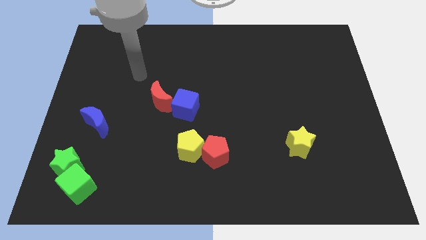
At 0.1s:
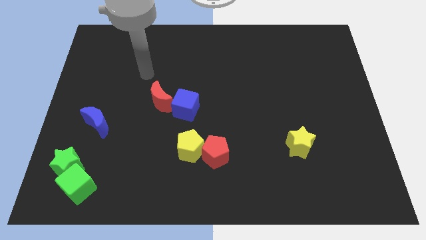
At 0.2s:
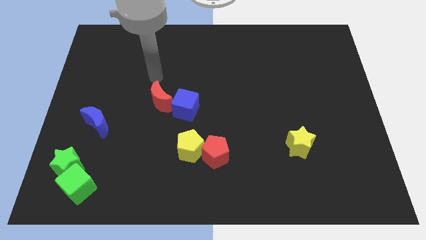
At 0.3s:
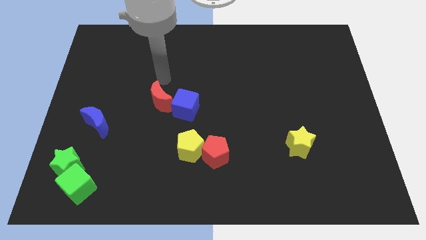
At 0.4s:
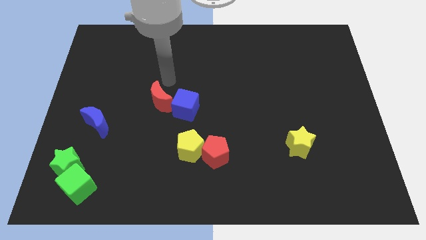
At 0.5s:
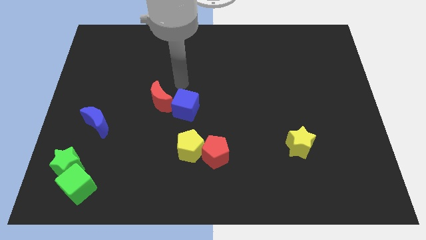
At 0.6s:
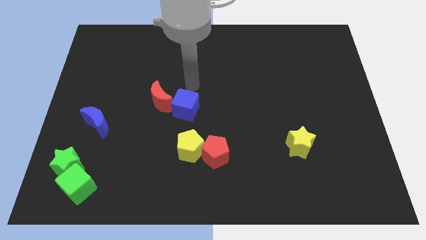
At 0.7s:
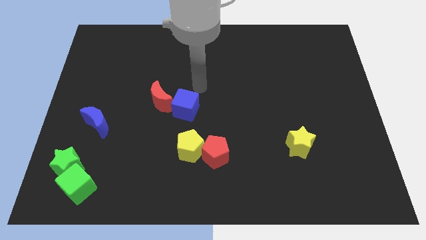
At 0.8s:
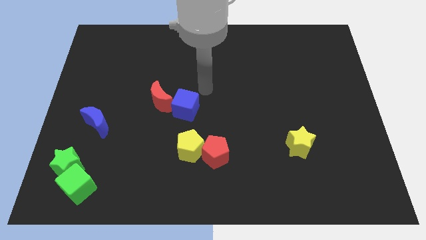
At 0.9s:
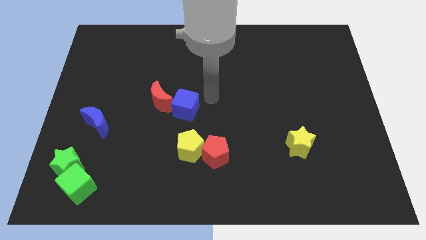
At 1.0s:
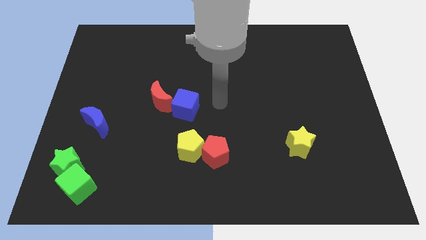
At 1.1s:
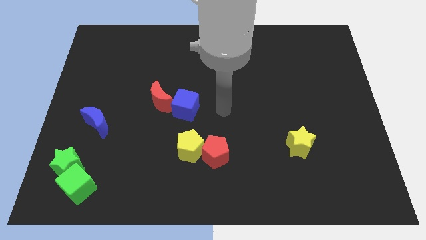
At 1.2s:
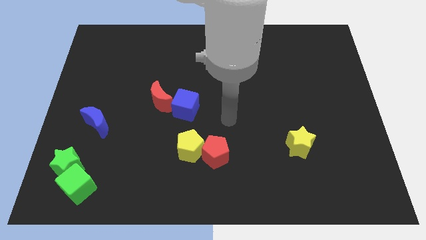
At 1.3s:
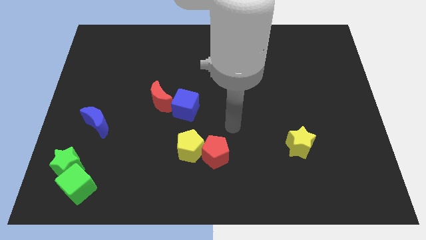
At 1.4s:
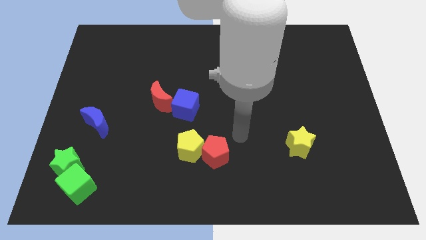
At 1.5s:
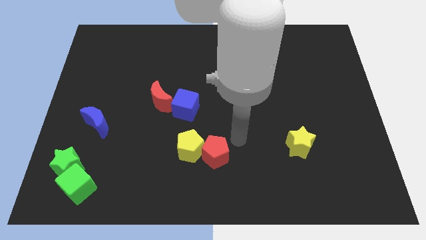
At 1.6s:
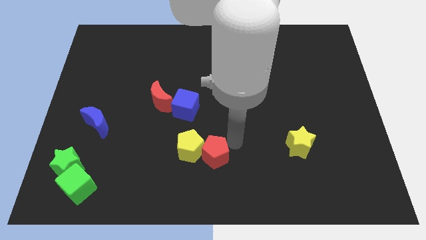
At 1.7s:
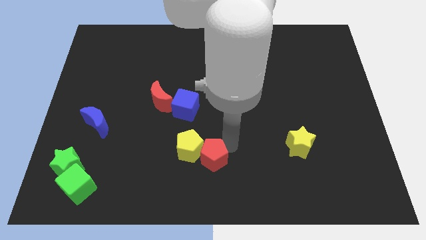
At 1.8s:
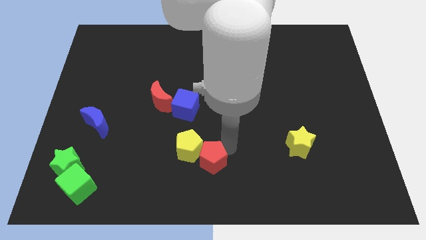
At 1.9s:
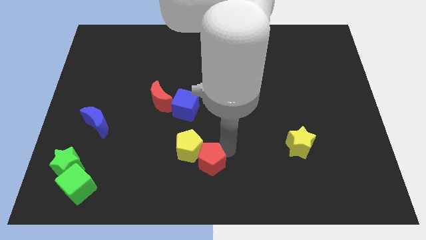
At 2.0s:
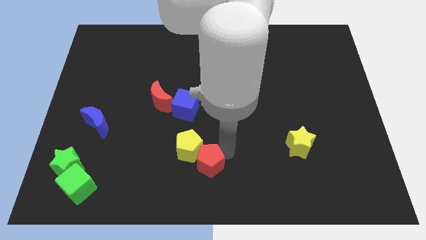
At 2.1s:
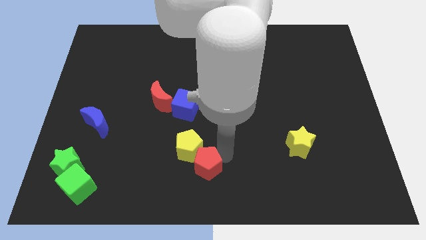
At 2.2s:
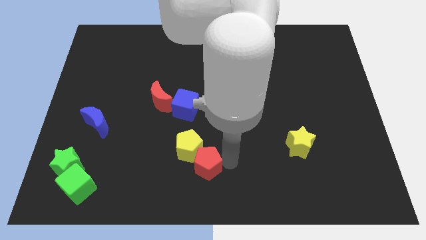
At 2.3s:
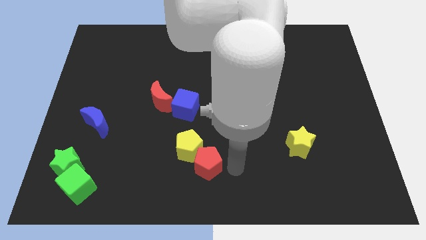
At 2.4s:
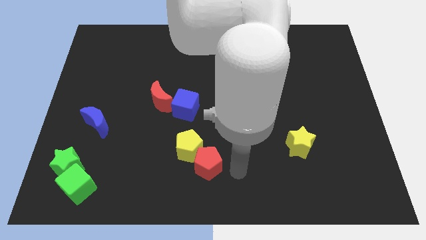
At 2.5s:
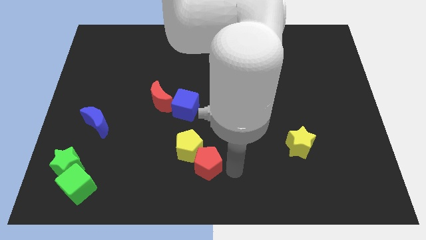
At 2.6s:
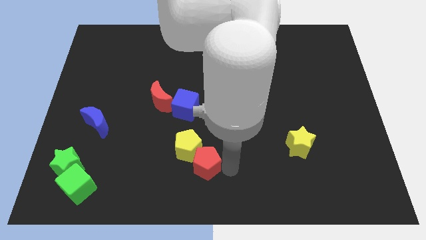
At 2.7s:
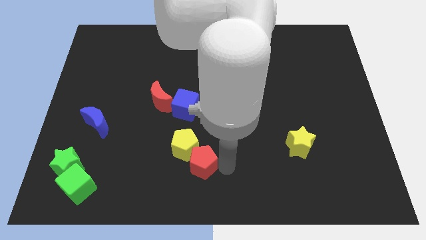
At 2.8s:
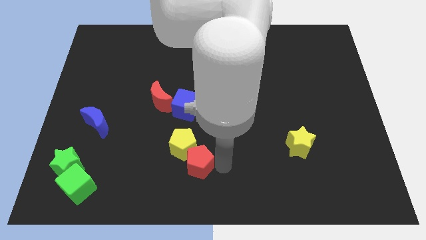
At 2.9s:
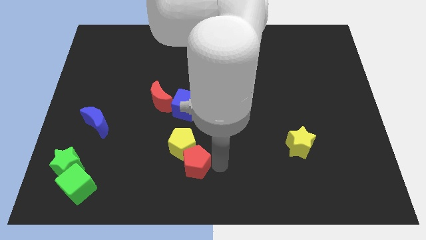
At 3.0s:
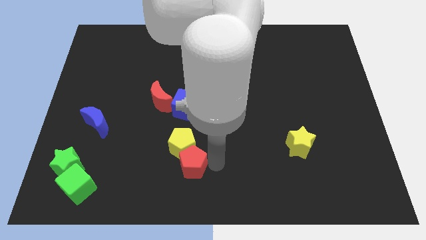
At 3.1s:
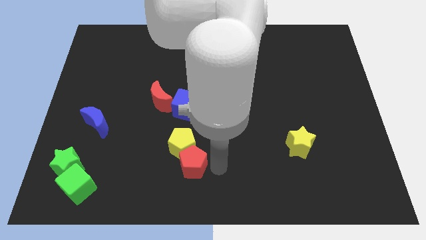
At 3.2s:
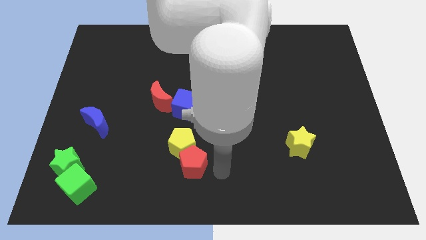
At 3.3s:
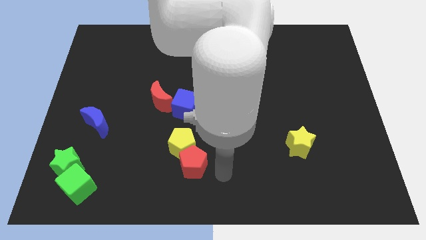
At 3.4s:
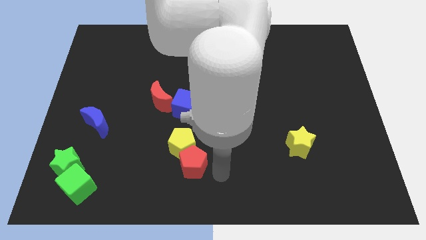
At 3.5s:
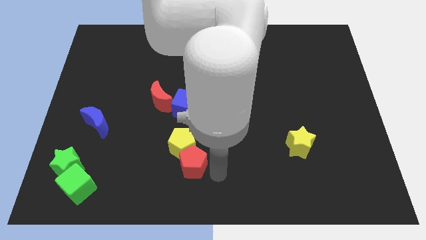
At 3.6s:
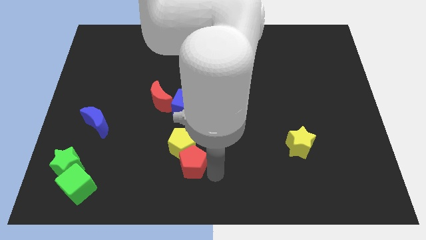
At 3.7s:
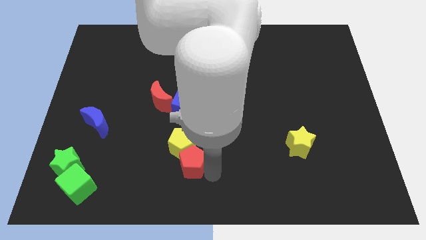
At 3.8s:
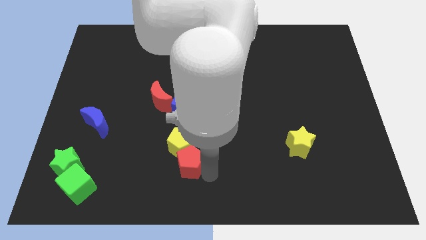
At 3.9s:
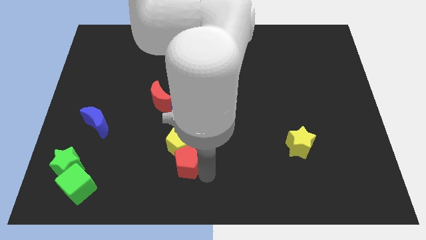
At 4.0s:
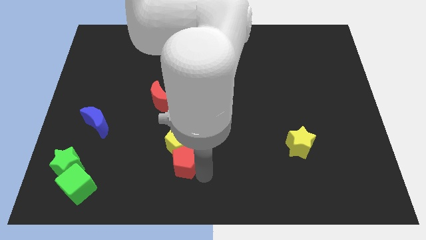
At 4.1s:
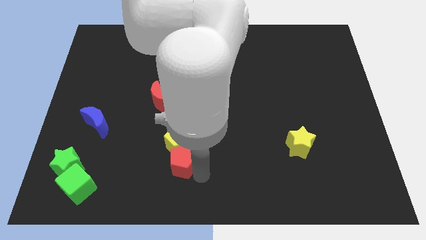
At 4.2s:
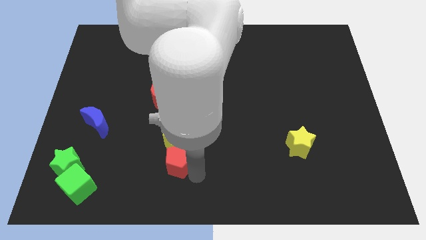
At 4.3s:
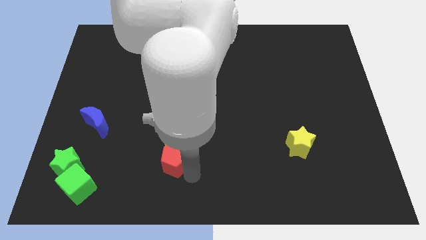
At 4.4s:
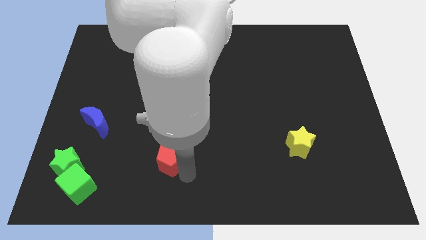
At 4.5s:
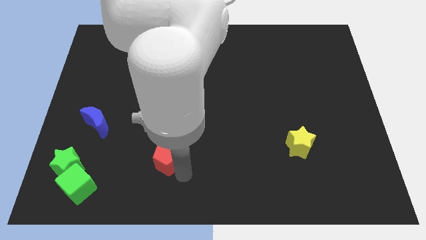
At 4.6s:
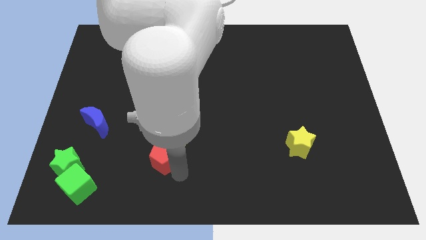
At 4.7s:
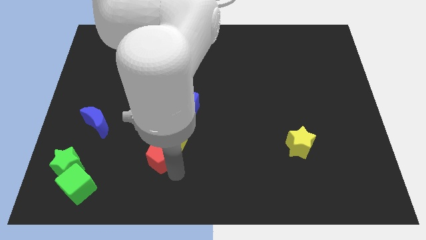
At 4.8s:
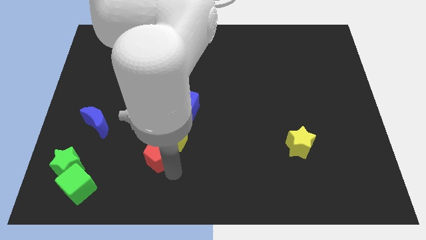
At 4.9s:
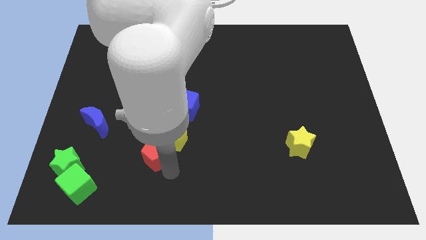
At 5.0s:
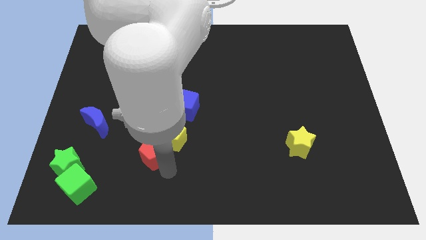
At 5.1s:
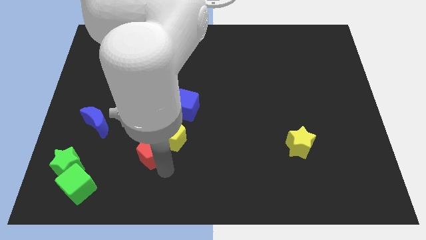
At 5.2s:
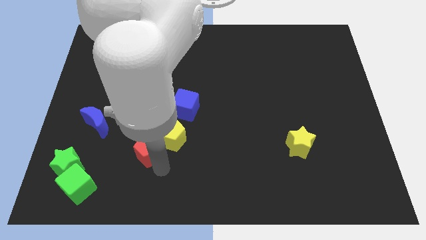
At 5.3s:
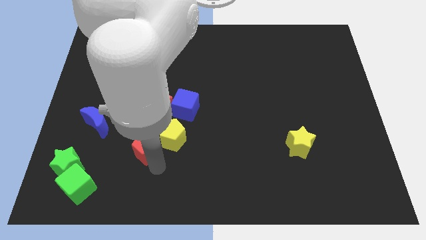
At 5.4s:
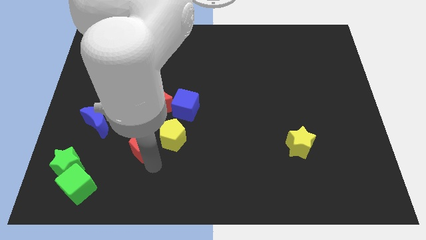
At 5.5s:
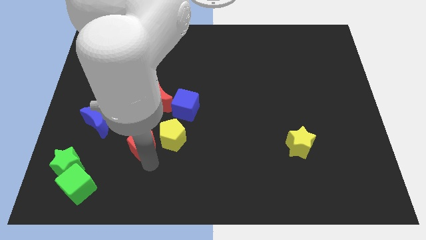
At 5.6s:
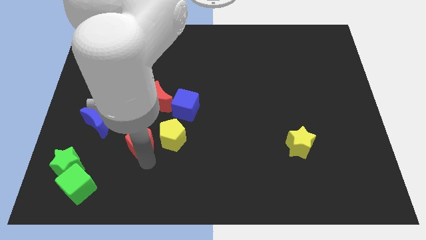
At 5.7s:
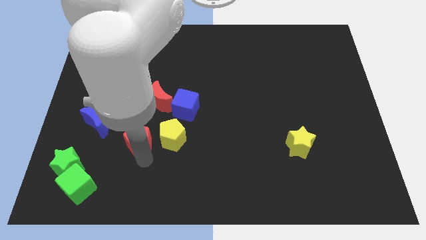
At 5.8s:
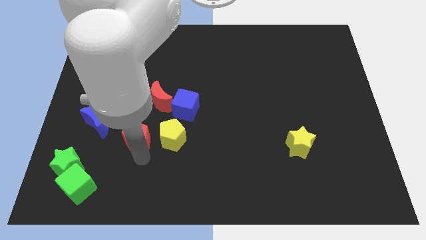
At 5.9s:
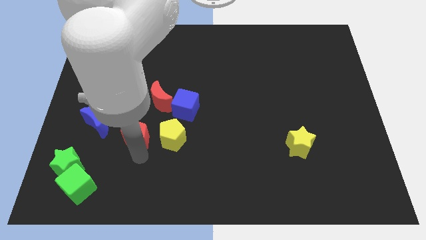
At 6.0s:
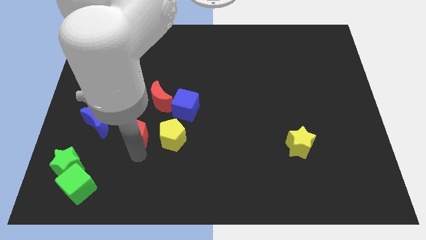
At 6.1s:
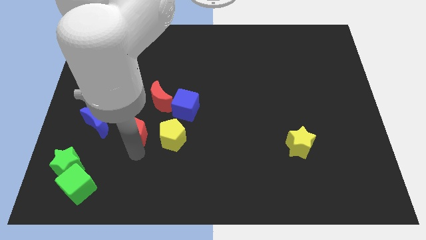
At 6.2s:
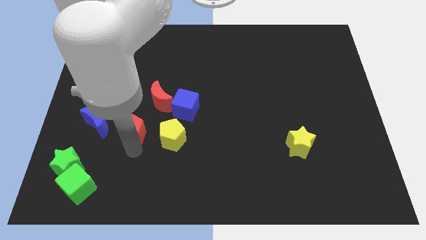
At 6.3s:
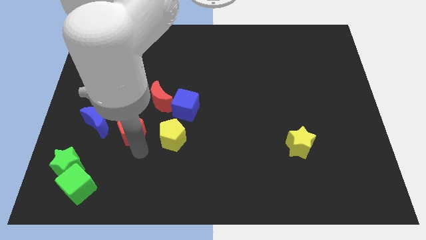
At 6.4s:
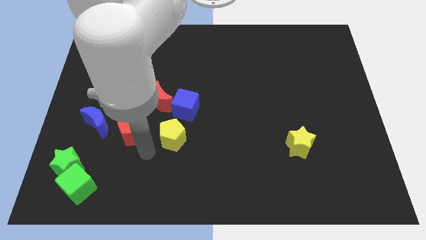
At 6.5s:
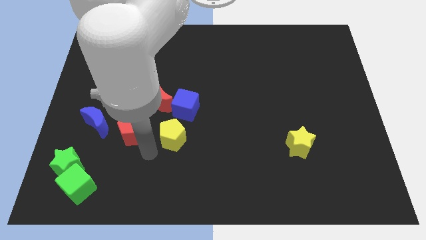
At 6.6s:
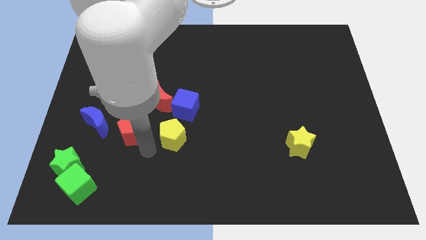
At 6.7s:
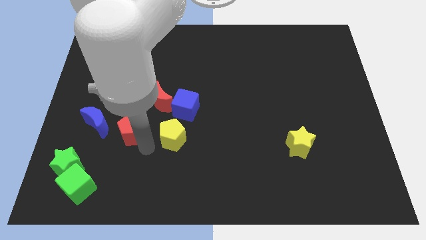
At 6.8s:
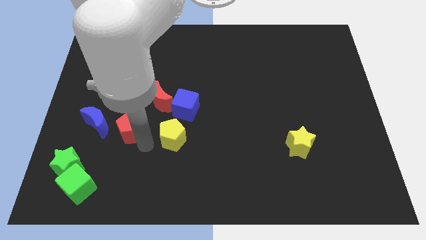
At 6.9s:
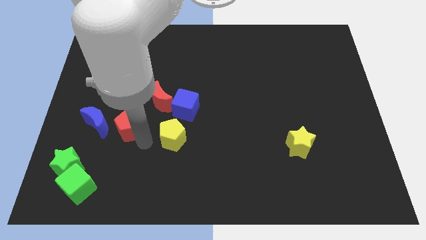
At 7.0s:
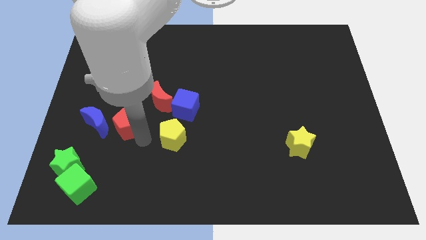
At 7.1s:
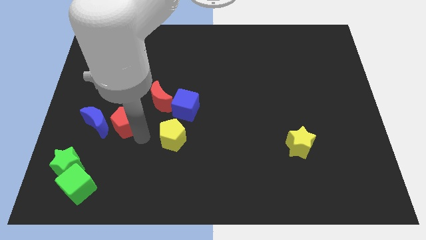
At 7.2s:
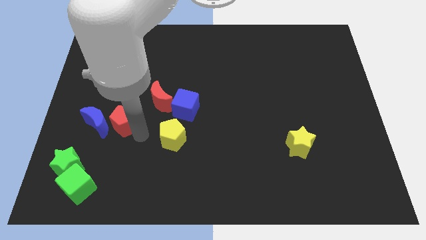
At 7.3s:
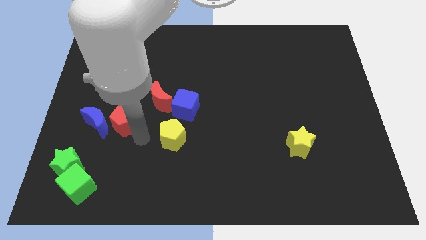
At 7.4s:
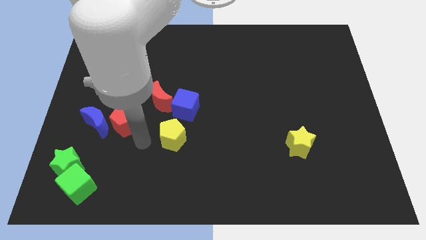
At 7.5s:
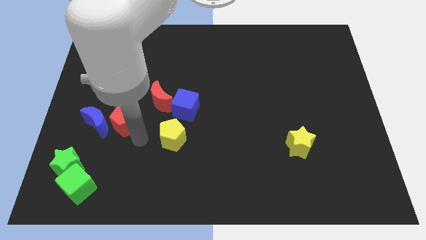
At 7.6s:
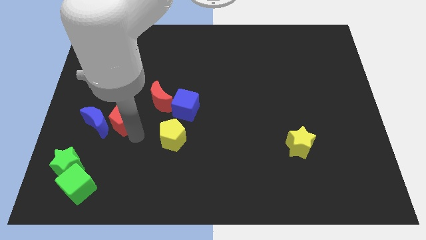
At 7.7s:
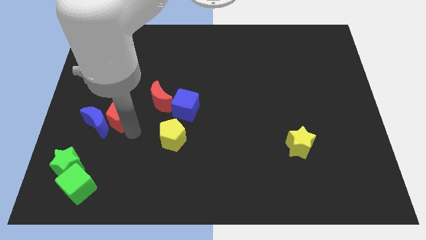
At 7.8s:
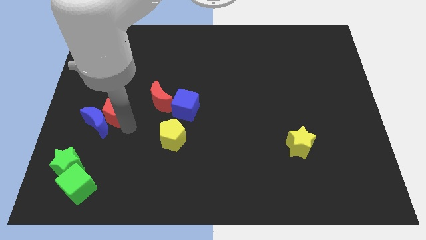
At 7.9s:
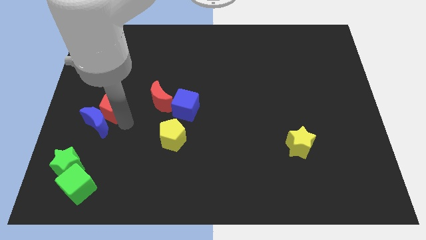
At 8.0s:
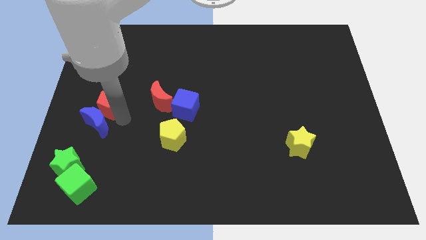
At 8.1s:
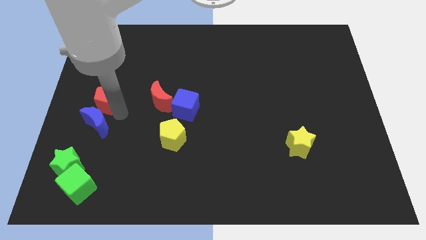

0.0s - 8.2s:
put the red pentagon to the center left
